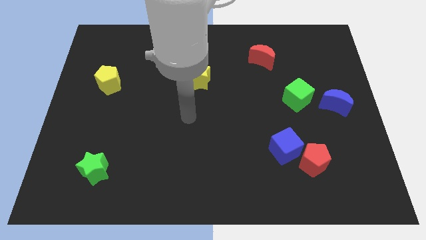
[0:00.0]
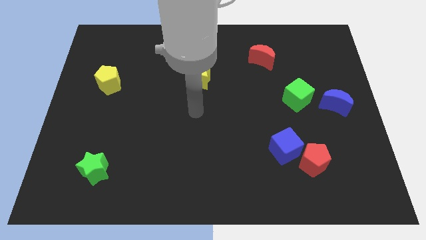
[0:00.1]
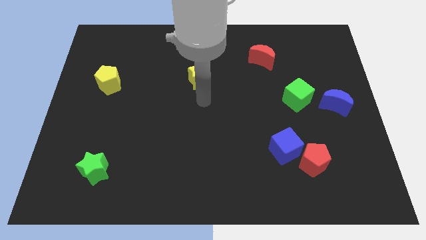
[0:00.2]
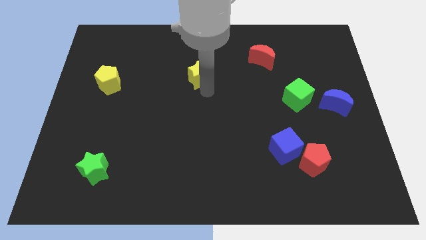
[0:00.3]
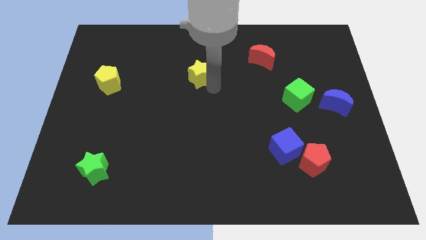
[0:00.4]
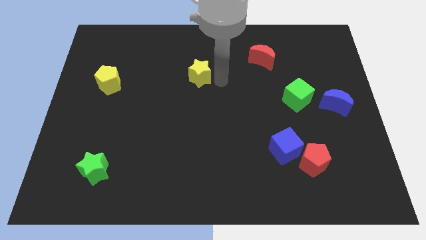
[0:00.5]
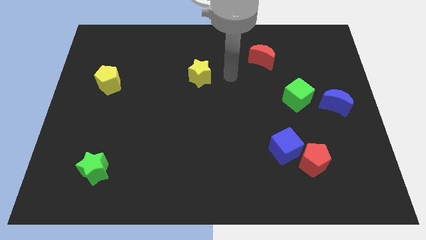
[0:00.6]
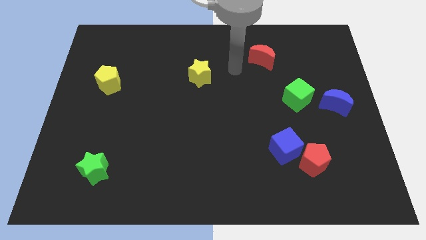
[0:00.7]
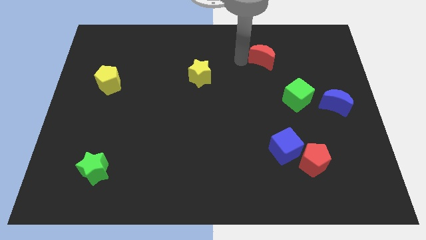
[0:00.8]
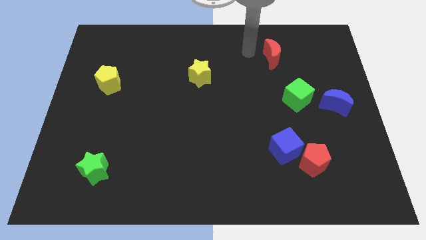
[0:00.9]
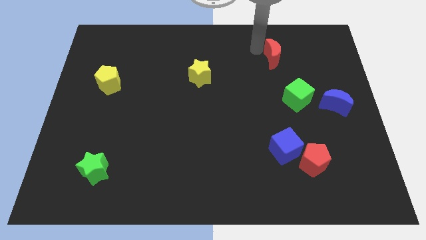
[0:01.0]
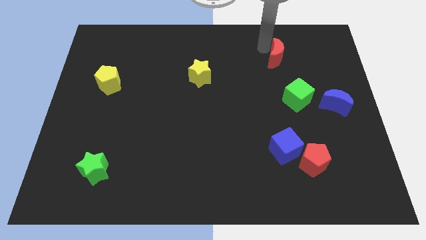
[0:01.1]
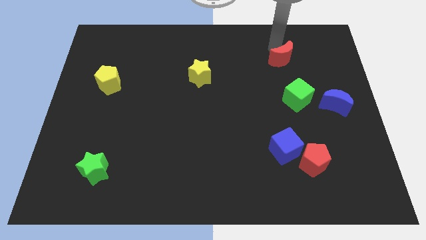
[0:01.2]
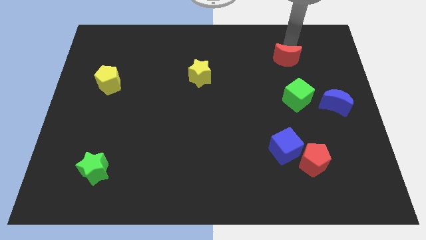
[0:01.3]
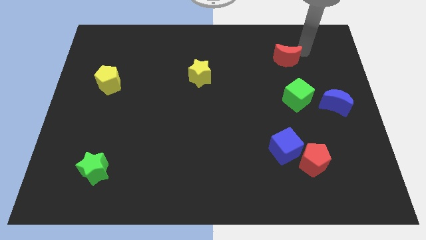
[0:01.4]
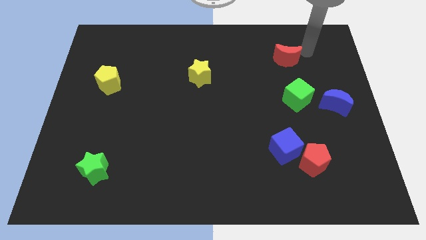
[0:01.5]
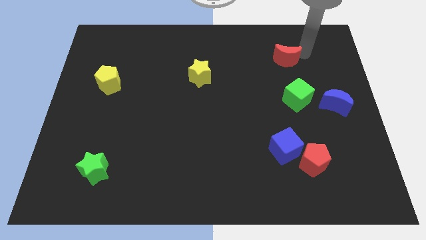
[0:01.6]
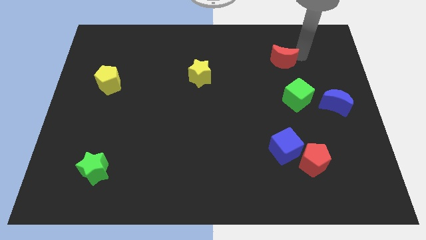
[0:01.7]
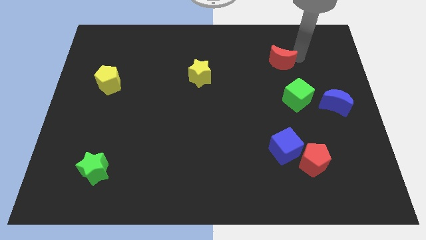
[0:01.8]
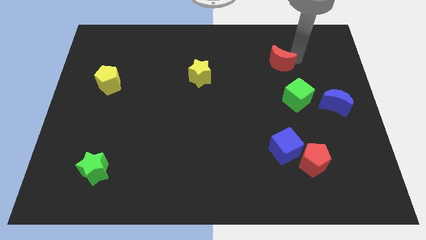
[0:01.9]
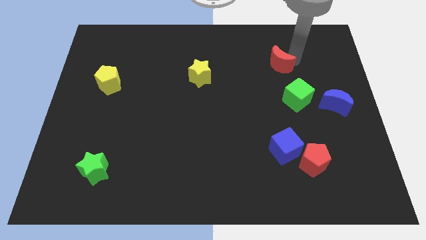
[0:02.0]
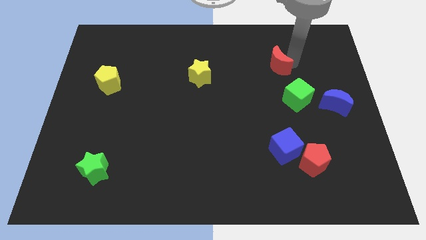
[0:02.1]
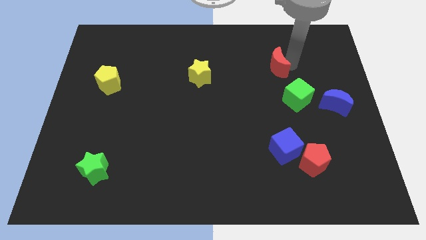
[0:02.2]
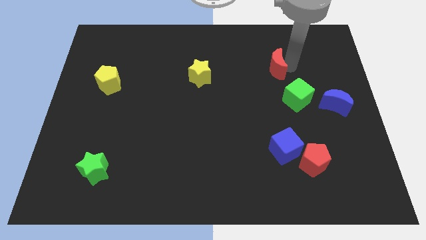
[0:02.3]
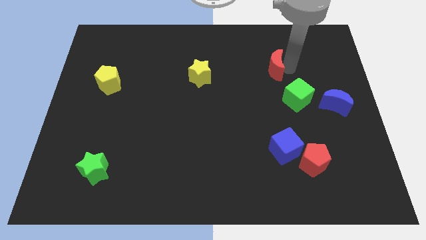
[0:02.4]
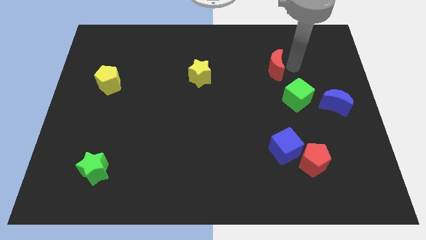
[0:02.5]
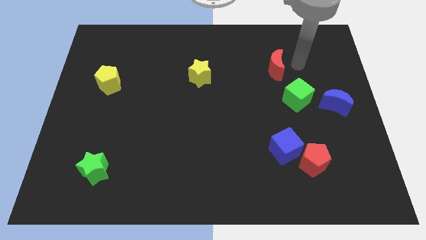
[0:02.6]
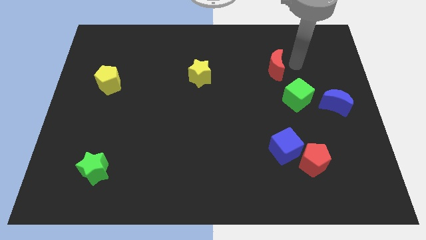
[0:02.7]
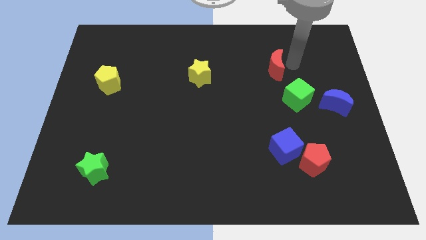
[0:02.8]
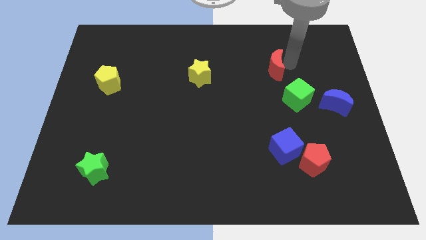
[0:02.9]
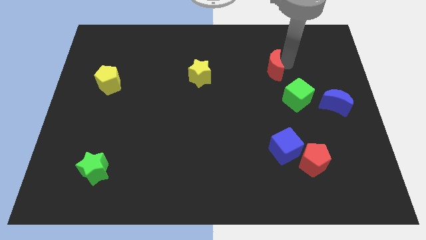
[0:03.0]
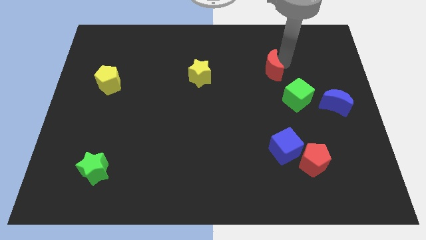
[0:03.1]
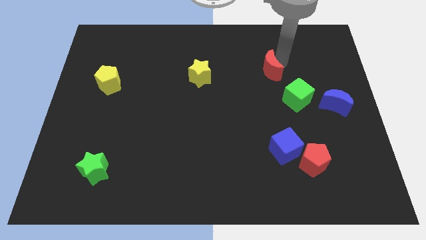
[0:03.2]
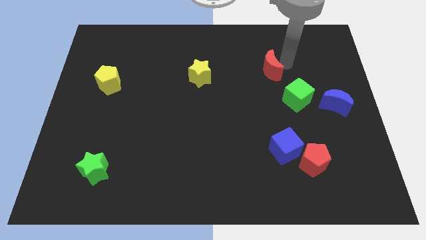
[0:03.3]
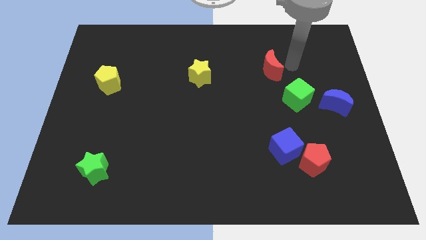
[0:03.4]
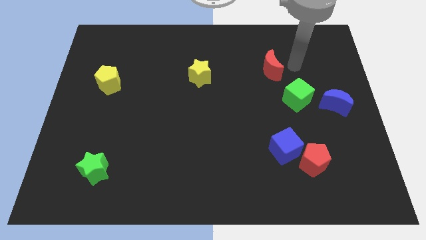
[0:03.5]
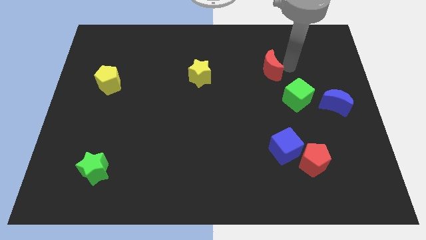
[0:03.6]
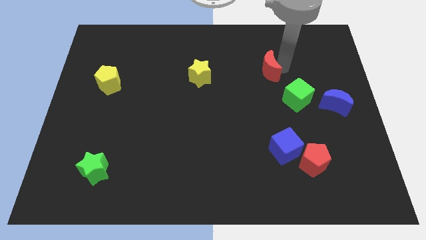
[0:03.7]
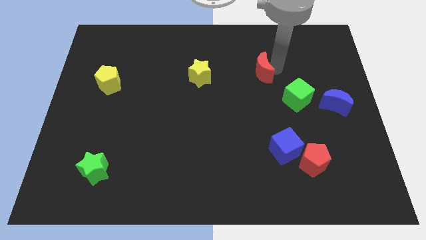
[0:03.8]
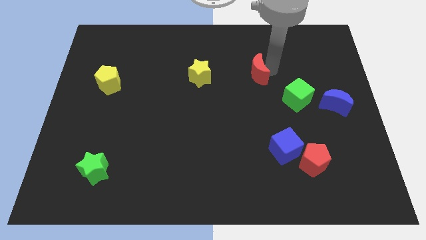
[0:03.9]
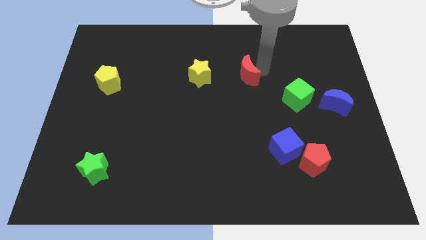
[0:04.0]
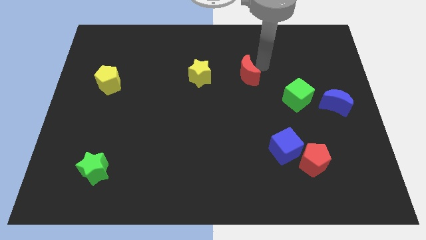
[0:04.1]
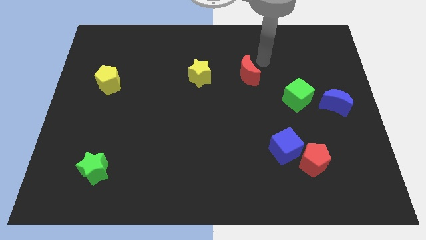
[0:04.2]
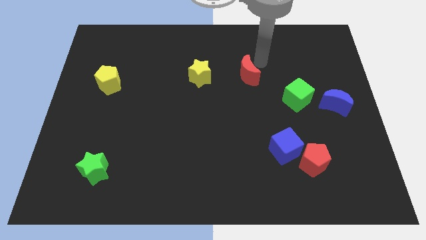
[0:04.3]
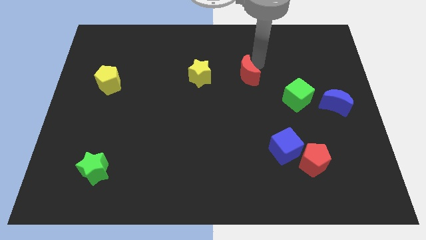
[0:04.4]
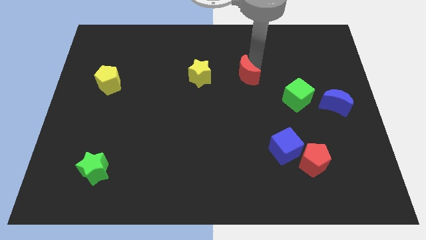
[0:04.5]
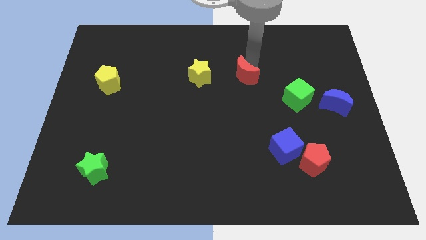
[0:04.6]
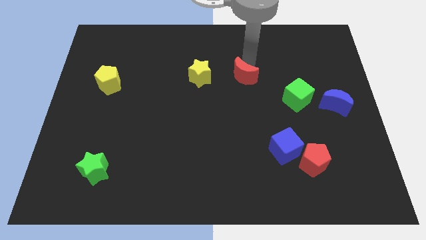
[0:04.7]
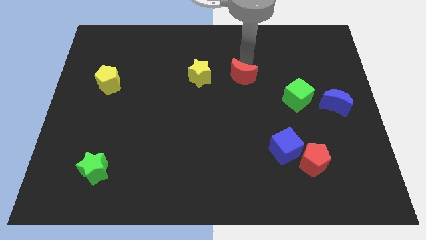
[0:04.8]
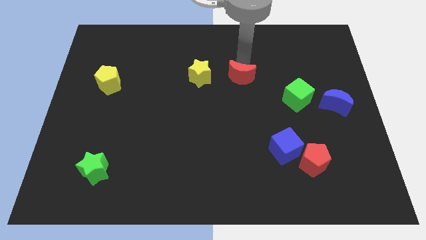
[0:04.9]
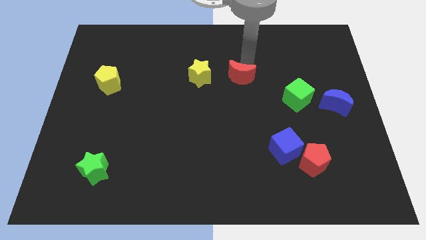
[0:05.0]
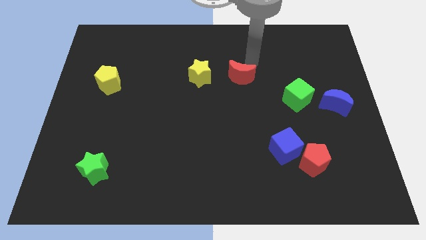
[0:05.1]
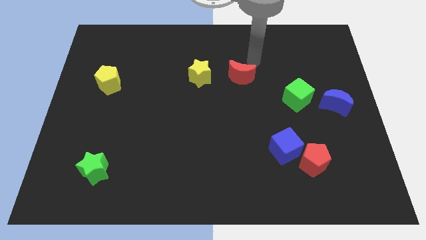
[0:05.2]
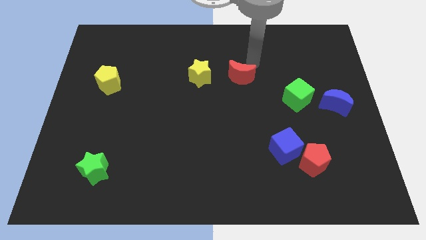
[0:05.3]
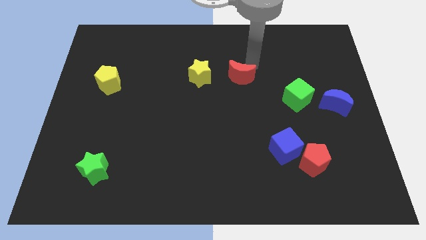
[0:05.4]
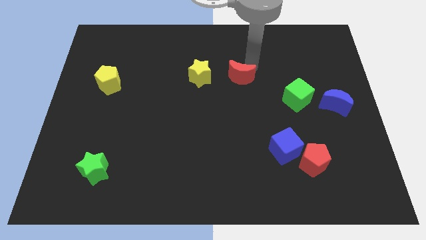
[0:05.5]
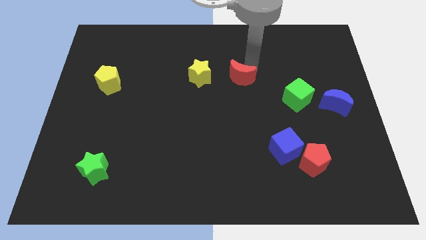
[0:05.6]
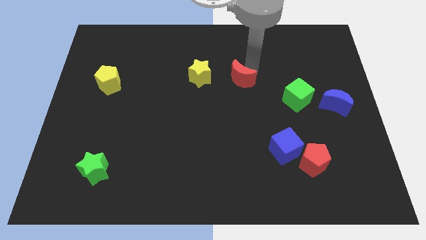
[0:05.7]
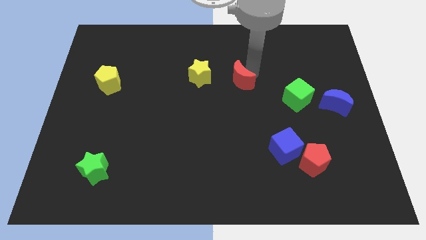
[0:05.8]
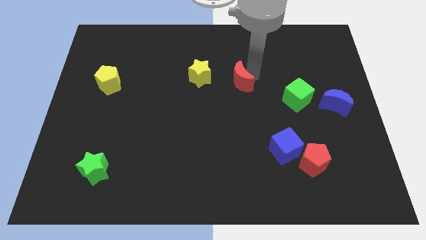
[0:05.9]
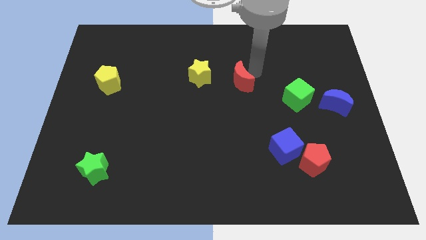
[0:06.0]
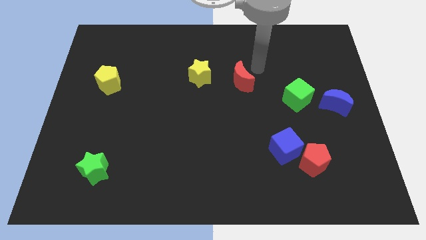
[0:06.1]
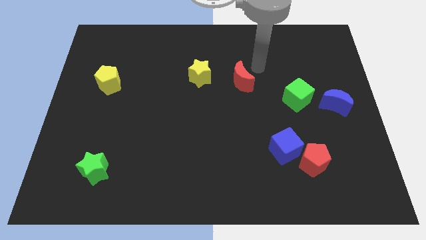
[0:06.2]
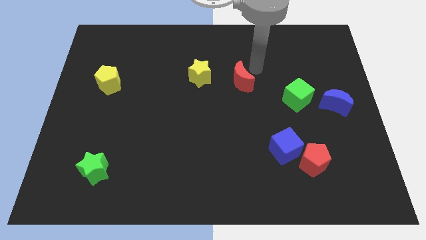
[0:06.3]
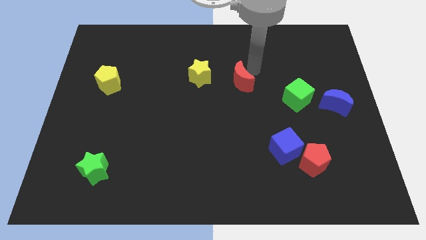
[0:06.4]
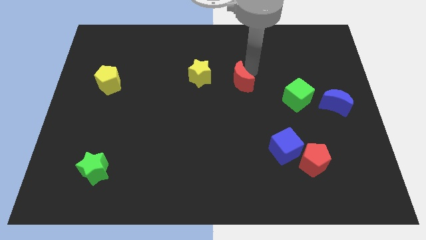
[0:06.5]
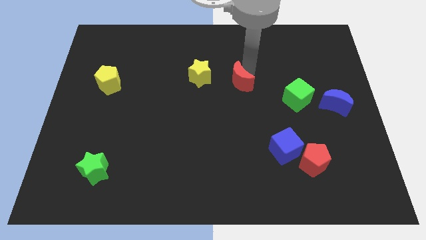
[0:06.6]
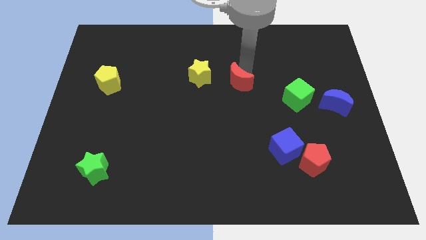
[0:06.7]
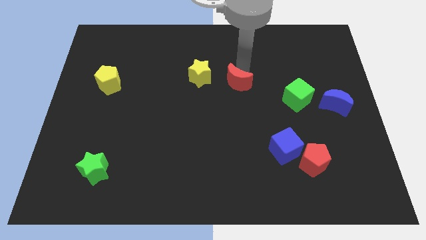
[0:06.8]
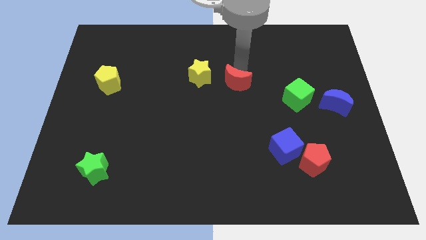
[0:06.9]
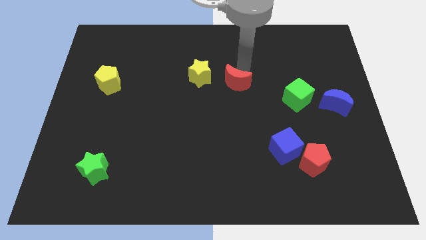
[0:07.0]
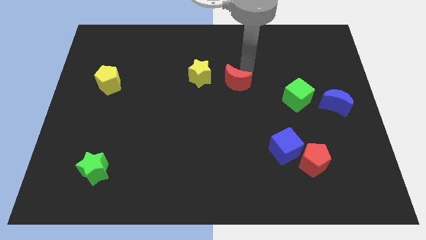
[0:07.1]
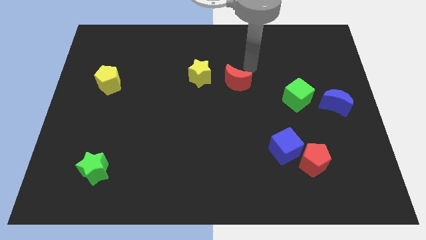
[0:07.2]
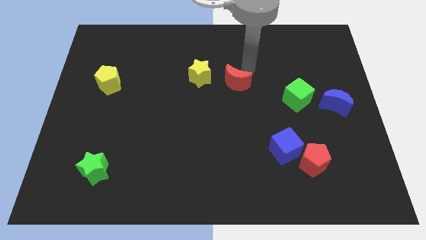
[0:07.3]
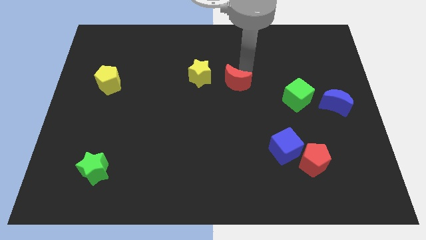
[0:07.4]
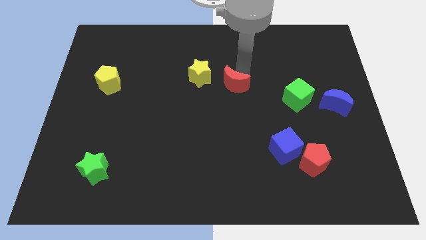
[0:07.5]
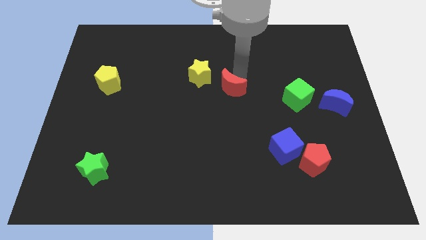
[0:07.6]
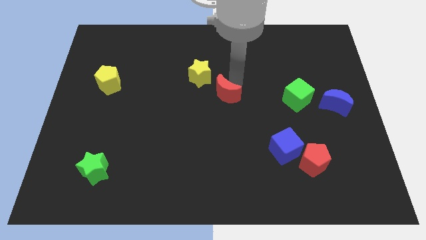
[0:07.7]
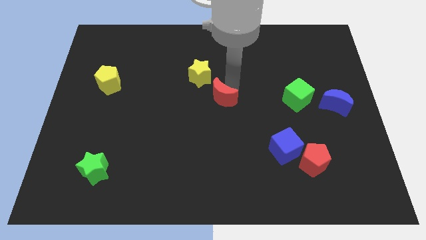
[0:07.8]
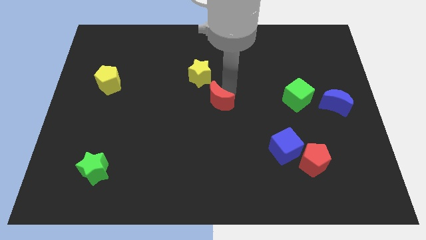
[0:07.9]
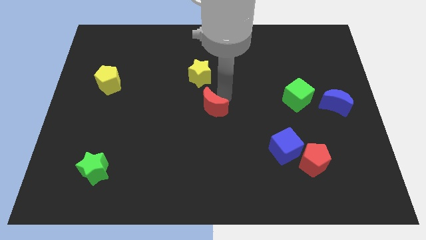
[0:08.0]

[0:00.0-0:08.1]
push the red moon downwards and left diagonally
